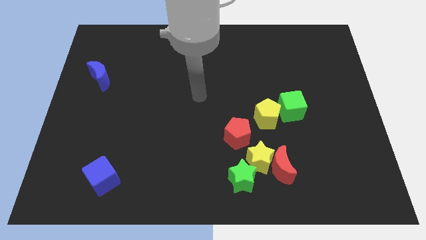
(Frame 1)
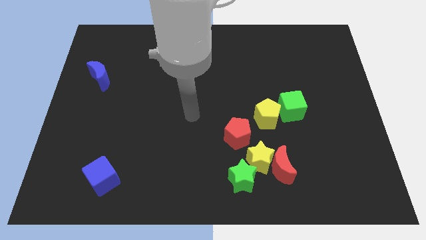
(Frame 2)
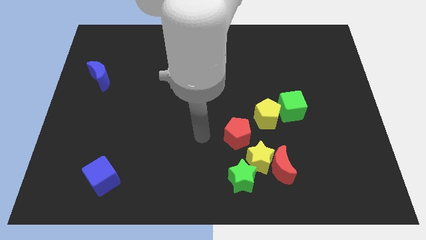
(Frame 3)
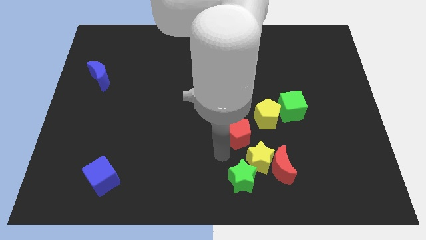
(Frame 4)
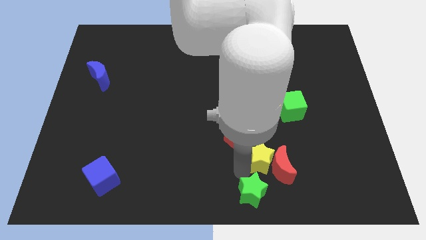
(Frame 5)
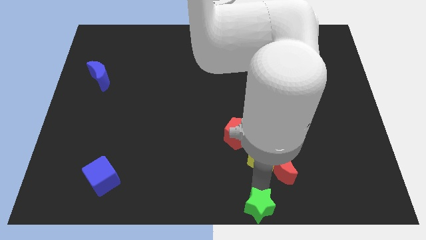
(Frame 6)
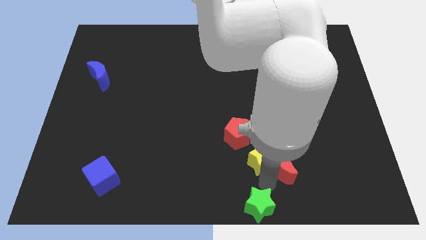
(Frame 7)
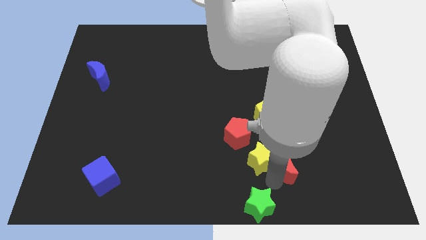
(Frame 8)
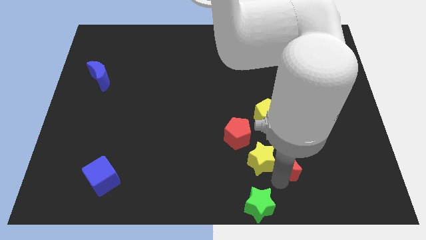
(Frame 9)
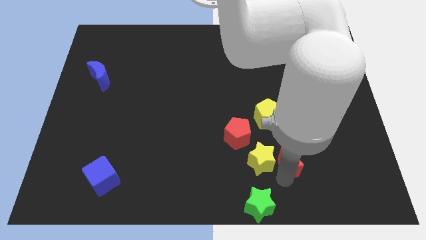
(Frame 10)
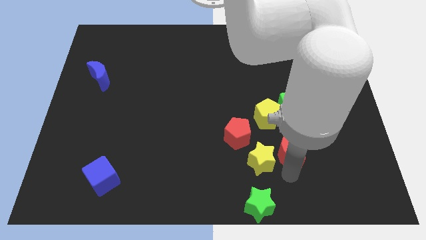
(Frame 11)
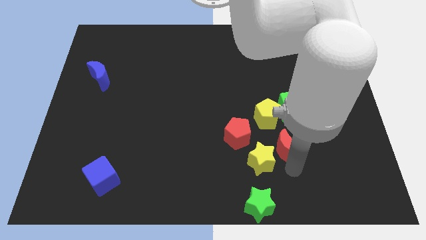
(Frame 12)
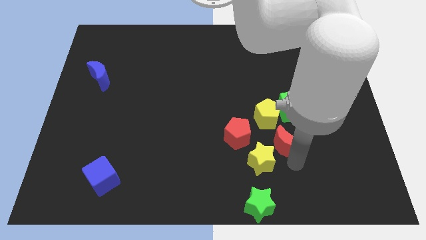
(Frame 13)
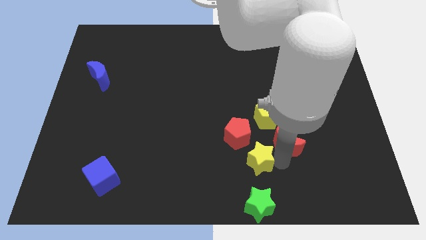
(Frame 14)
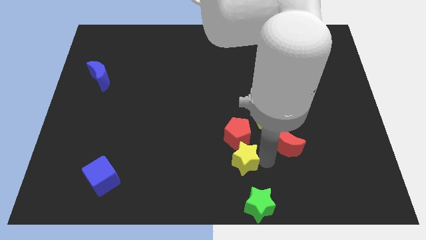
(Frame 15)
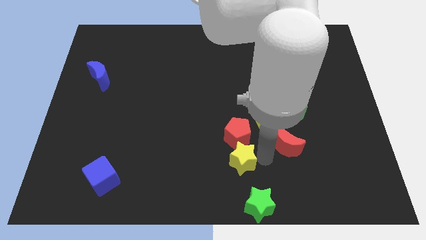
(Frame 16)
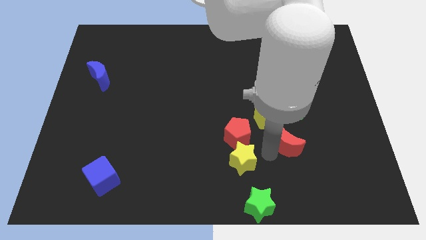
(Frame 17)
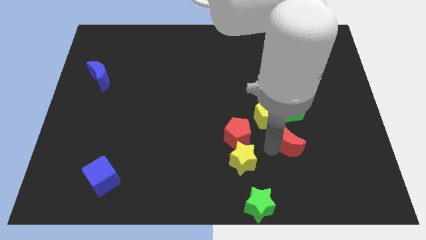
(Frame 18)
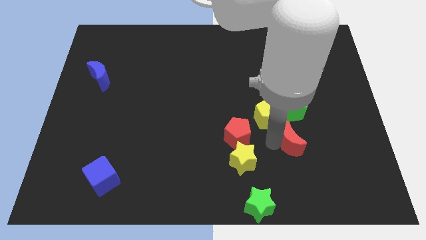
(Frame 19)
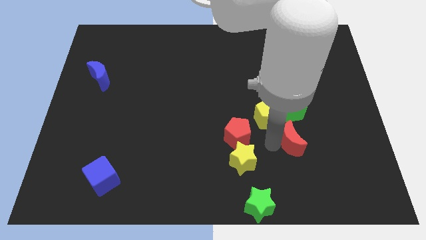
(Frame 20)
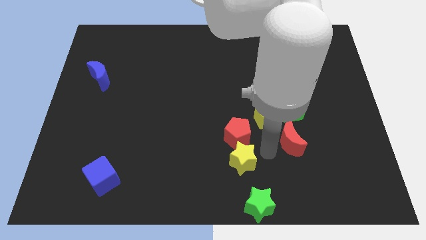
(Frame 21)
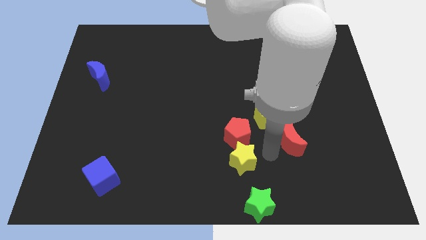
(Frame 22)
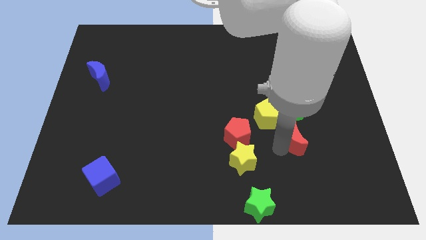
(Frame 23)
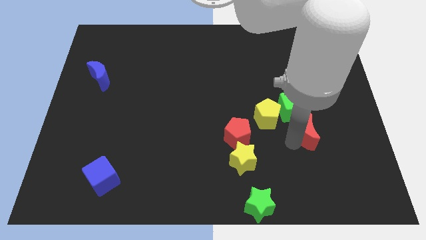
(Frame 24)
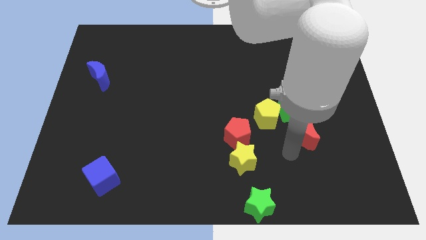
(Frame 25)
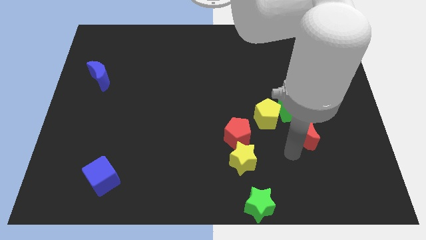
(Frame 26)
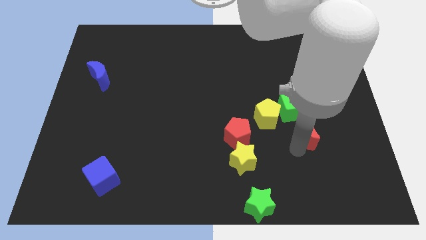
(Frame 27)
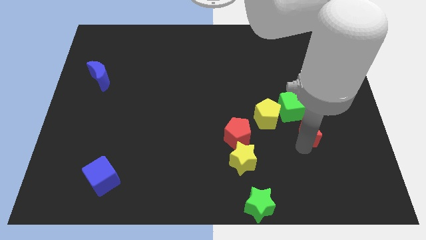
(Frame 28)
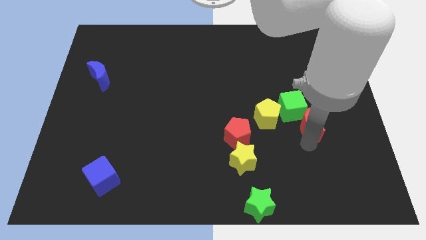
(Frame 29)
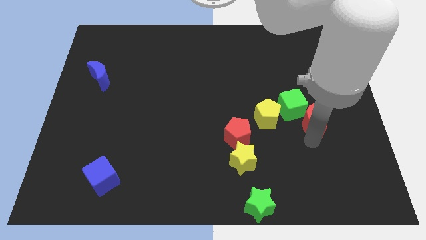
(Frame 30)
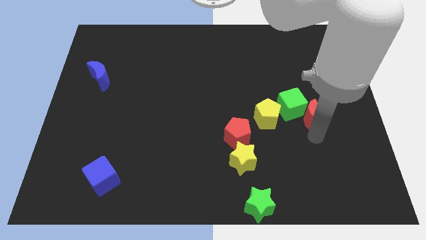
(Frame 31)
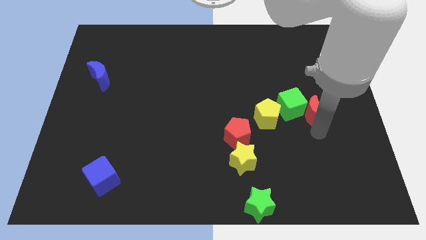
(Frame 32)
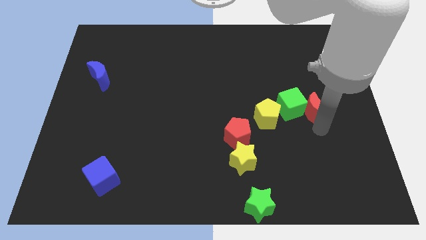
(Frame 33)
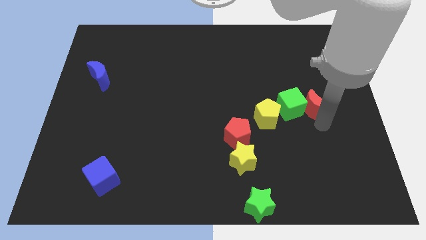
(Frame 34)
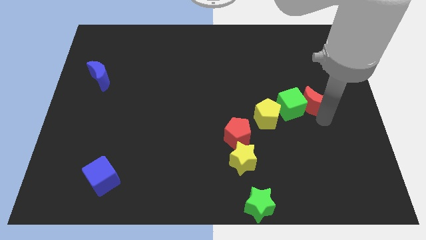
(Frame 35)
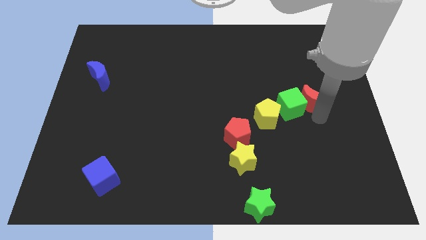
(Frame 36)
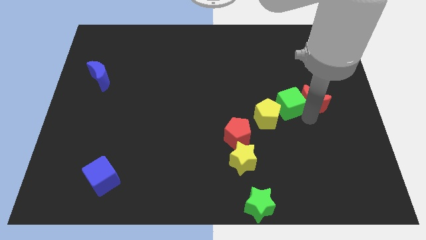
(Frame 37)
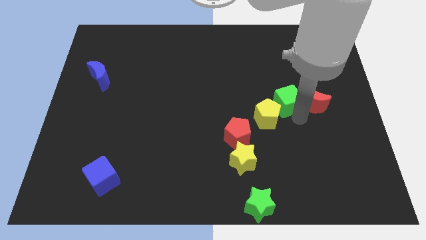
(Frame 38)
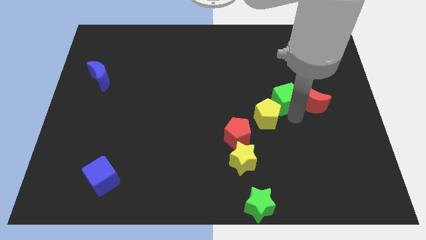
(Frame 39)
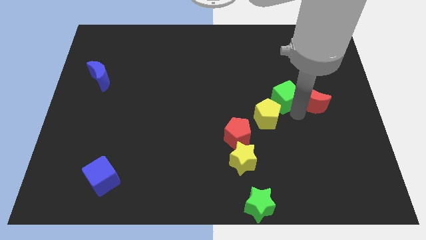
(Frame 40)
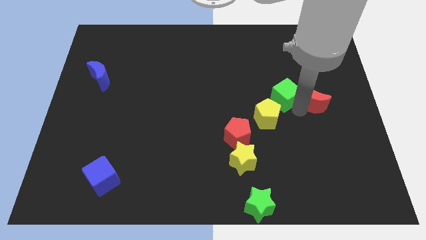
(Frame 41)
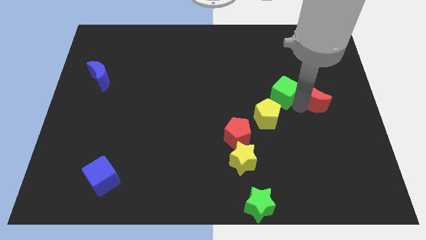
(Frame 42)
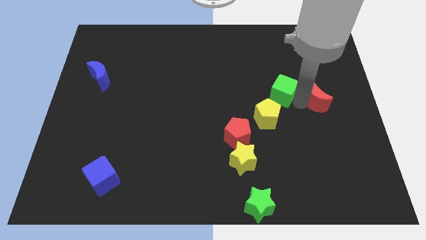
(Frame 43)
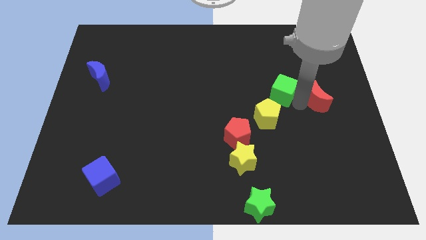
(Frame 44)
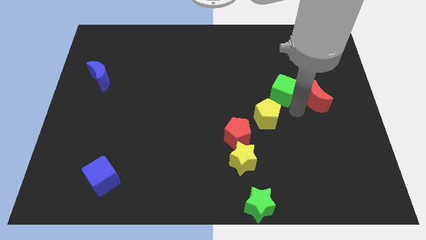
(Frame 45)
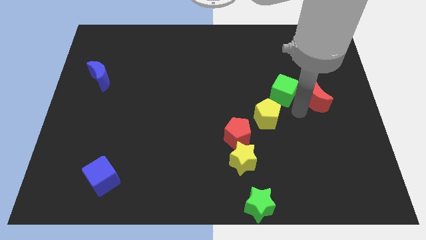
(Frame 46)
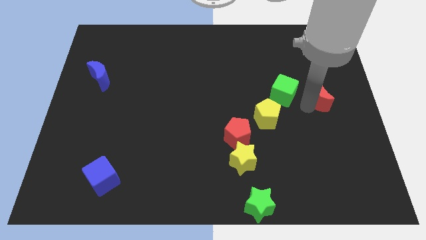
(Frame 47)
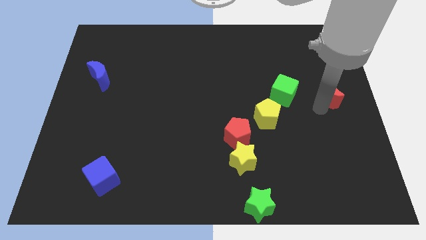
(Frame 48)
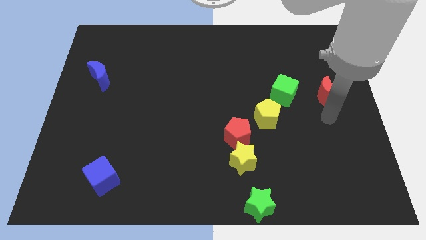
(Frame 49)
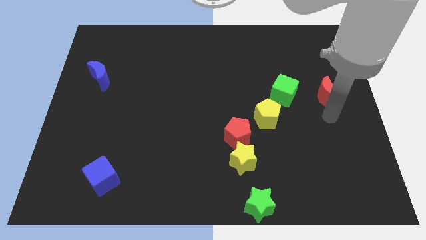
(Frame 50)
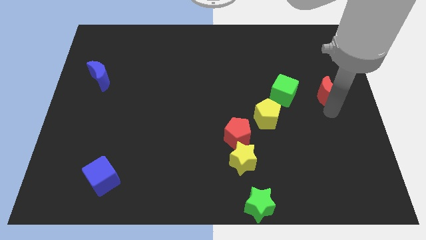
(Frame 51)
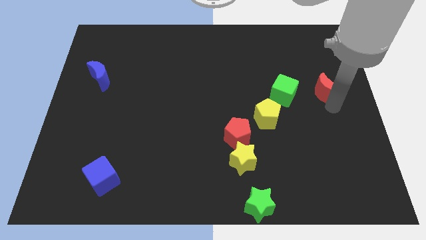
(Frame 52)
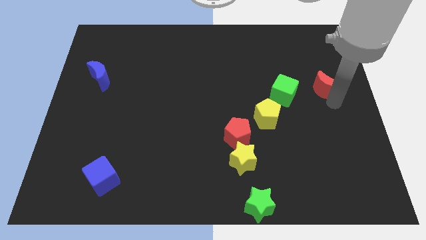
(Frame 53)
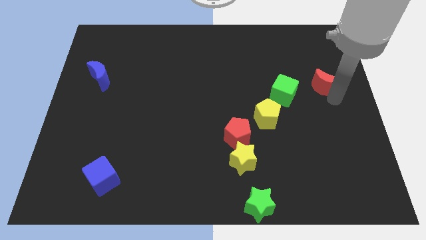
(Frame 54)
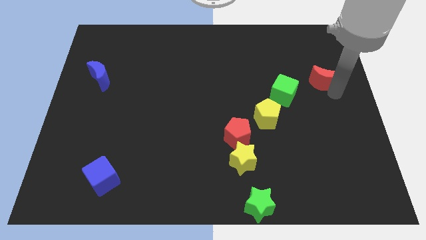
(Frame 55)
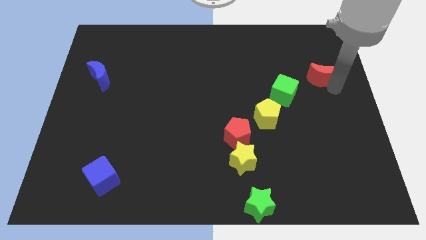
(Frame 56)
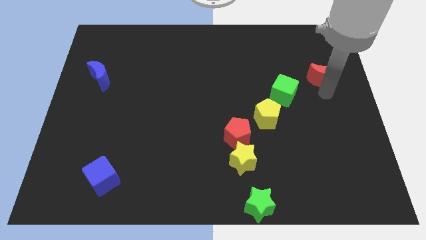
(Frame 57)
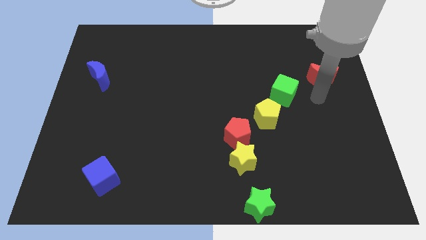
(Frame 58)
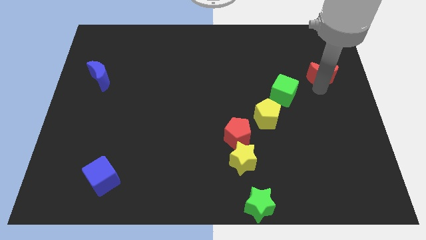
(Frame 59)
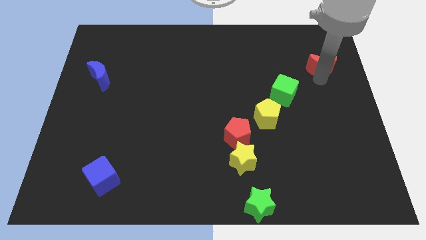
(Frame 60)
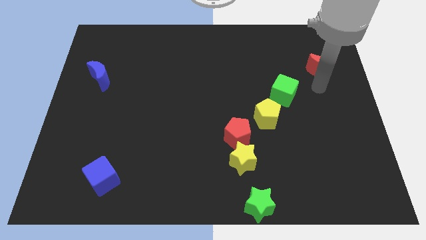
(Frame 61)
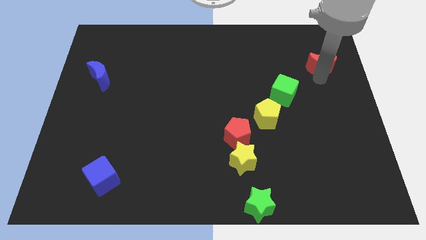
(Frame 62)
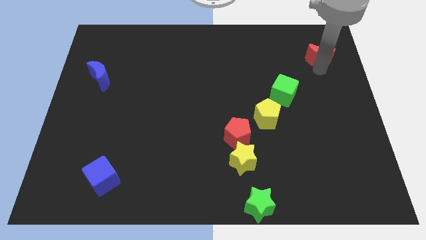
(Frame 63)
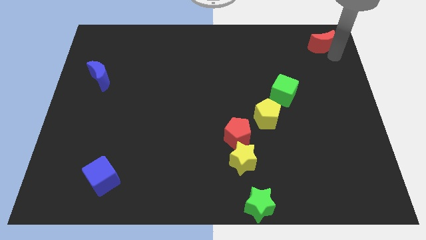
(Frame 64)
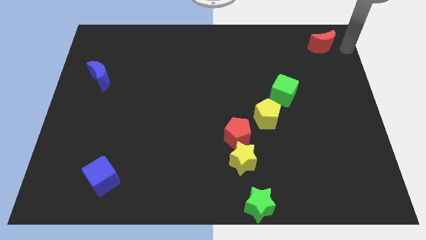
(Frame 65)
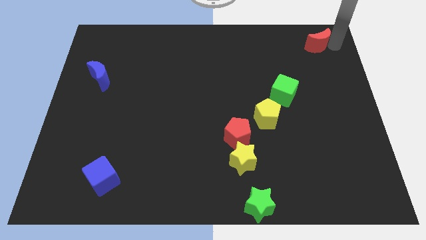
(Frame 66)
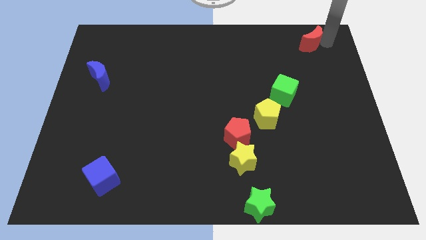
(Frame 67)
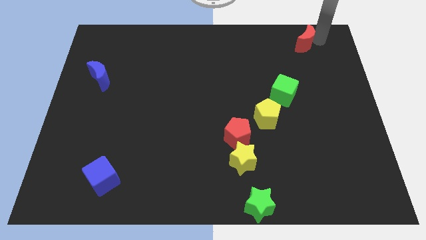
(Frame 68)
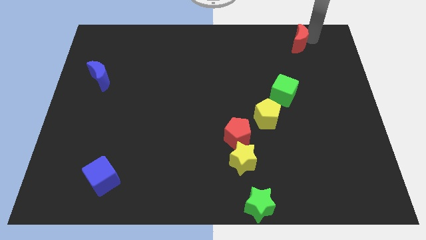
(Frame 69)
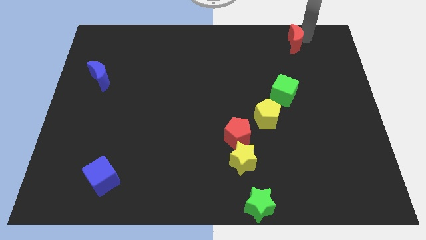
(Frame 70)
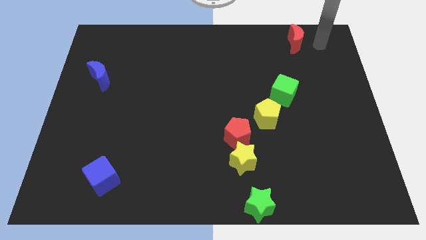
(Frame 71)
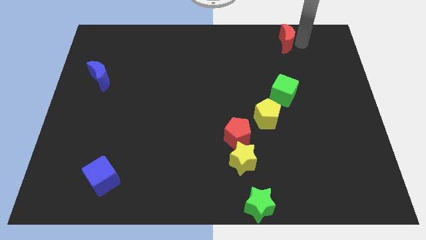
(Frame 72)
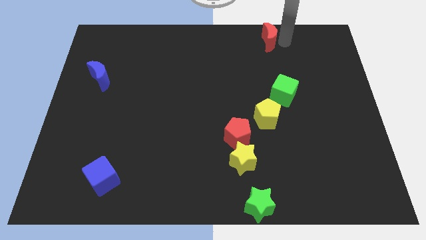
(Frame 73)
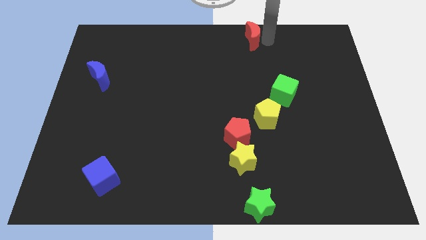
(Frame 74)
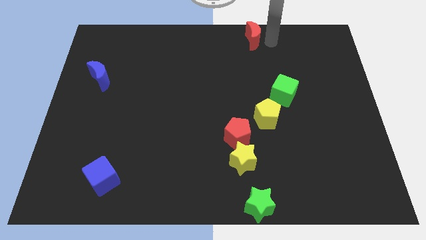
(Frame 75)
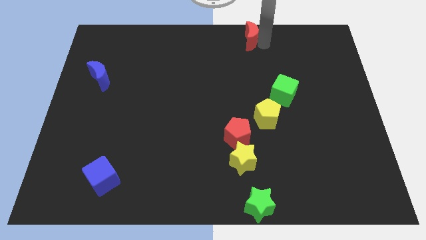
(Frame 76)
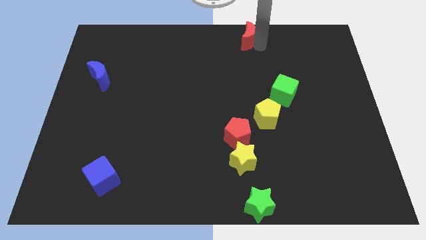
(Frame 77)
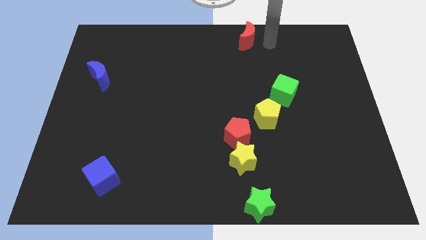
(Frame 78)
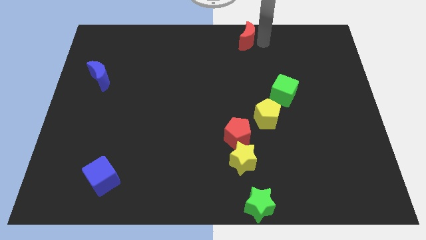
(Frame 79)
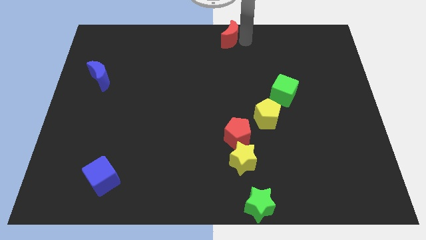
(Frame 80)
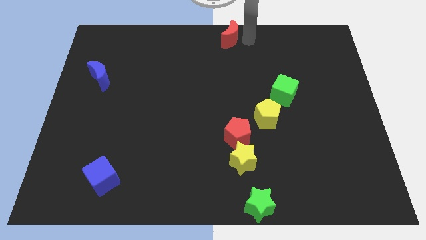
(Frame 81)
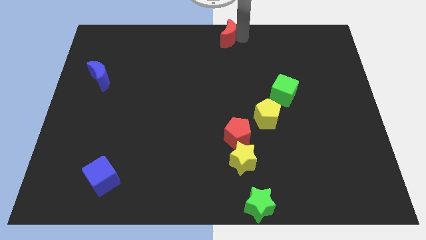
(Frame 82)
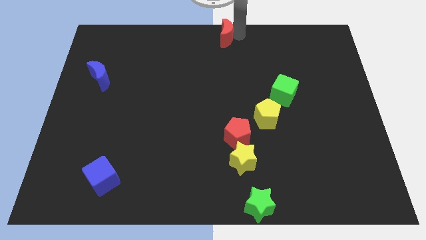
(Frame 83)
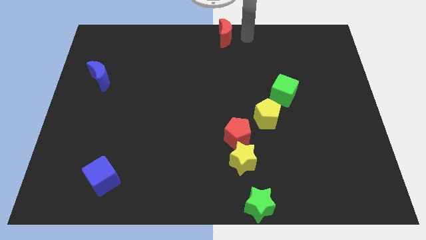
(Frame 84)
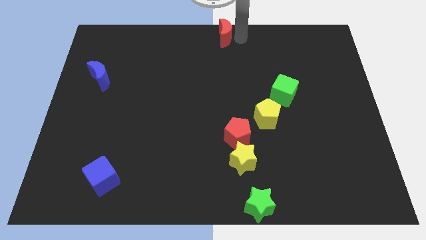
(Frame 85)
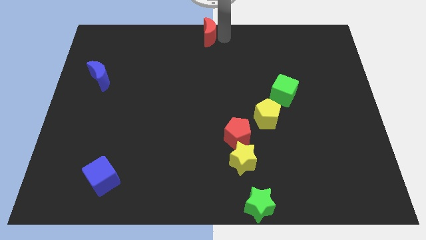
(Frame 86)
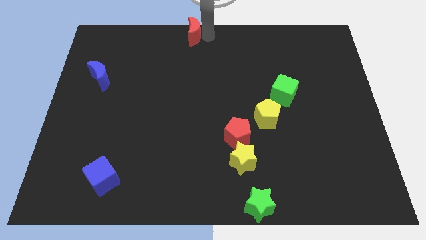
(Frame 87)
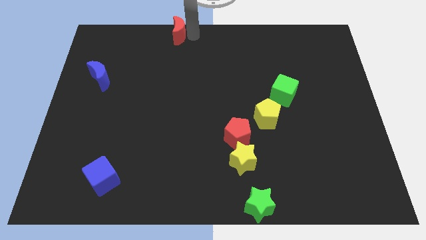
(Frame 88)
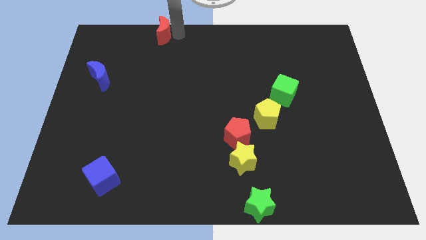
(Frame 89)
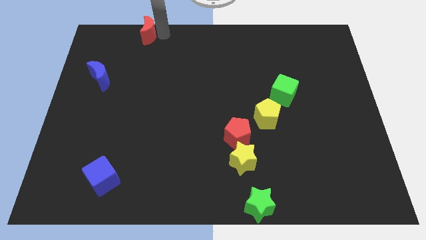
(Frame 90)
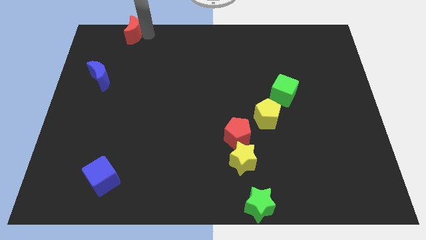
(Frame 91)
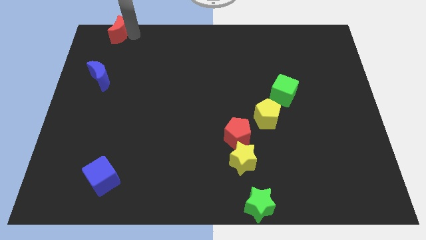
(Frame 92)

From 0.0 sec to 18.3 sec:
slide the red moon to the upper left corner
